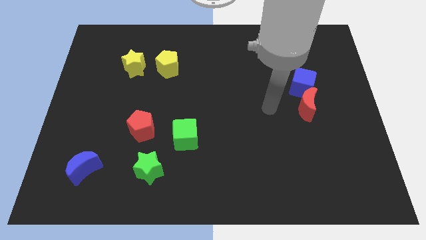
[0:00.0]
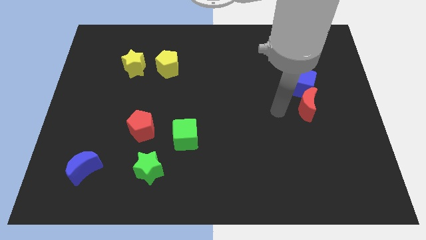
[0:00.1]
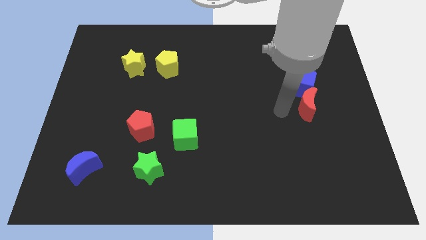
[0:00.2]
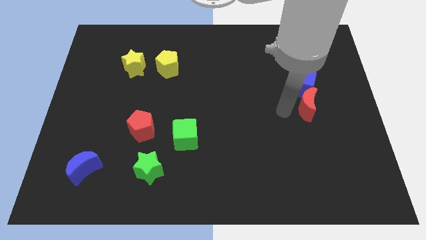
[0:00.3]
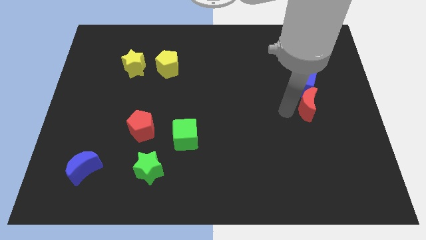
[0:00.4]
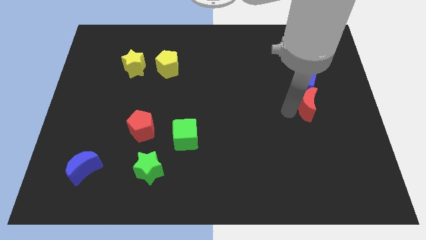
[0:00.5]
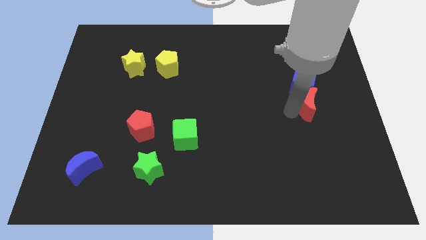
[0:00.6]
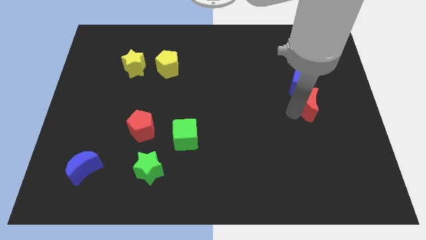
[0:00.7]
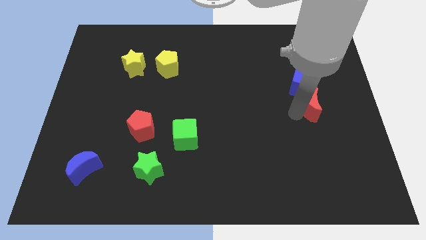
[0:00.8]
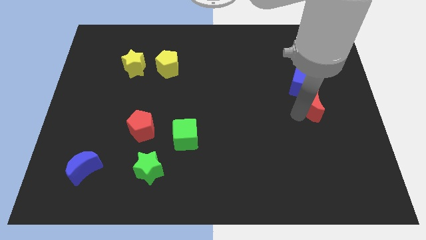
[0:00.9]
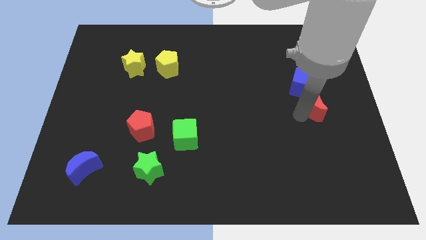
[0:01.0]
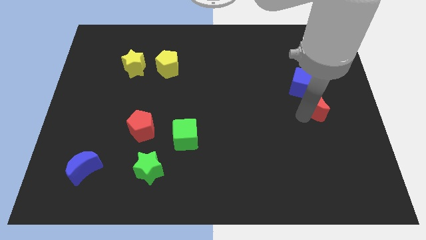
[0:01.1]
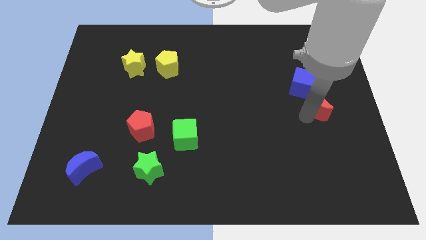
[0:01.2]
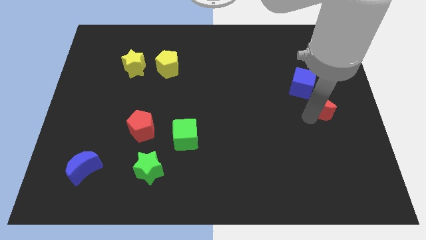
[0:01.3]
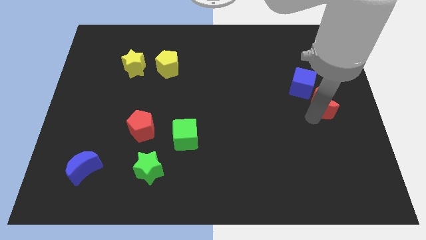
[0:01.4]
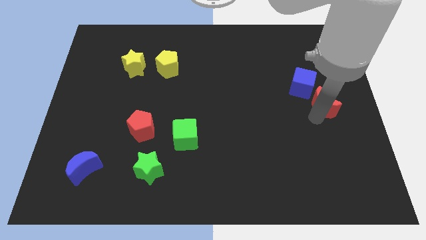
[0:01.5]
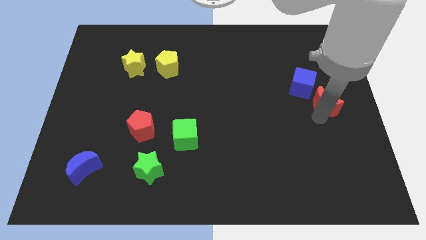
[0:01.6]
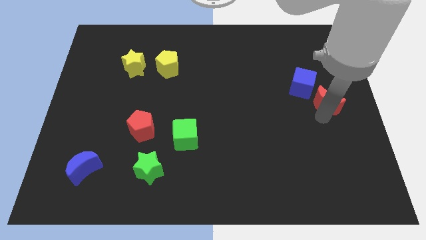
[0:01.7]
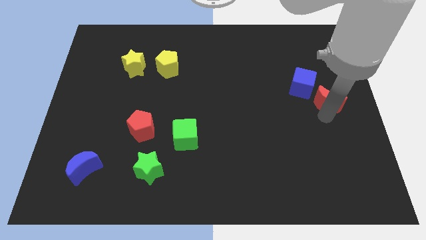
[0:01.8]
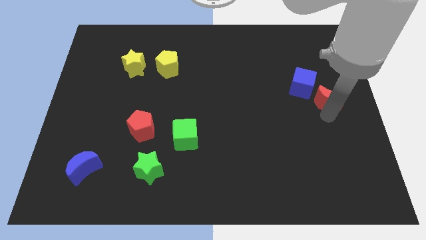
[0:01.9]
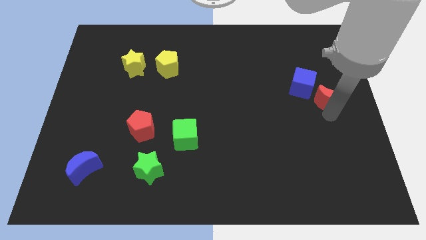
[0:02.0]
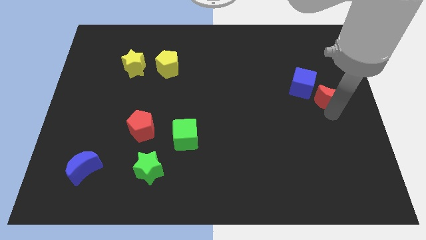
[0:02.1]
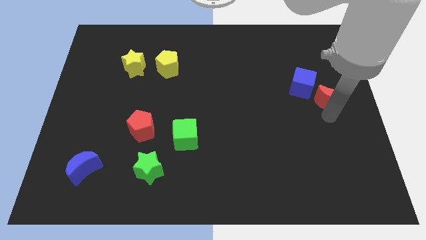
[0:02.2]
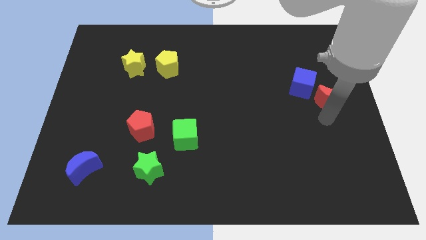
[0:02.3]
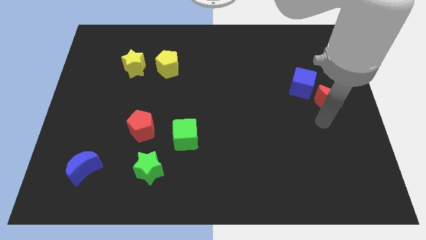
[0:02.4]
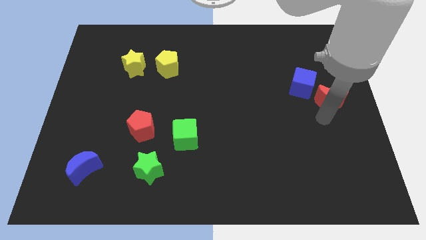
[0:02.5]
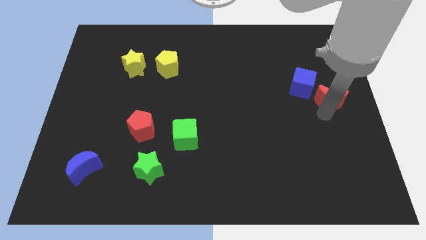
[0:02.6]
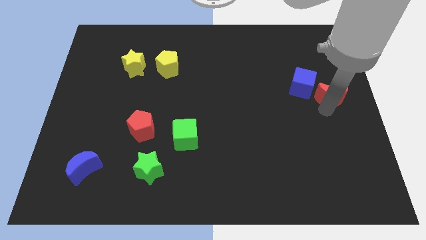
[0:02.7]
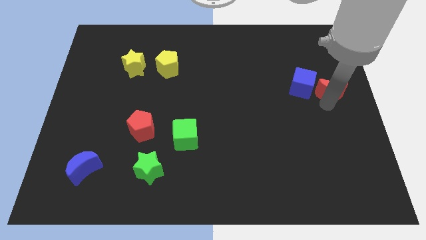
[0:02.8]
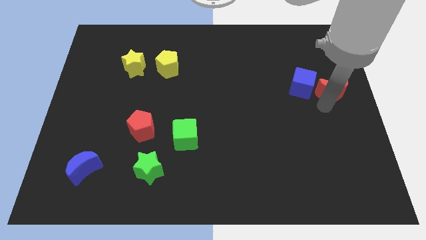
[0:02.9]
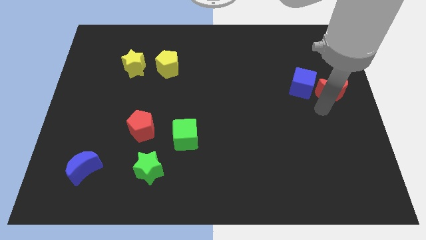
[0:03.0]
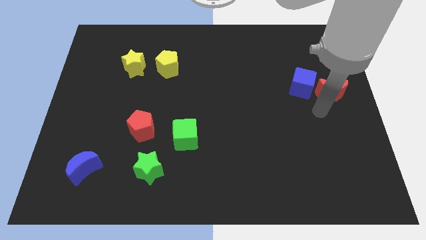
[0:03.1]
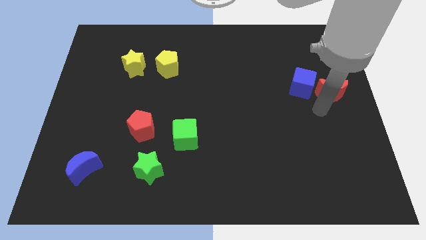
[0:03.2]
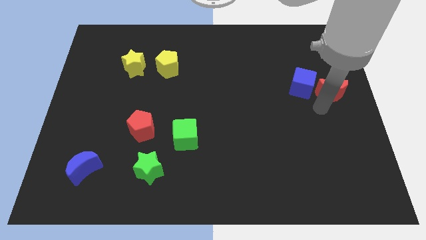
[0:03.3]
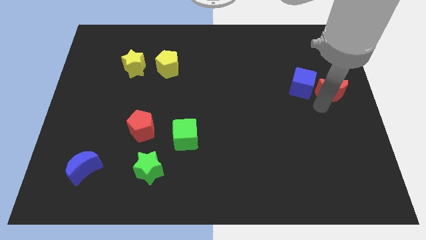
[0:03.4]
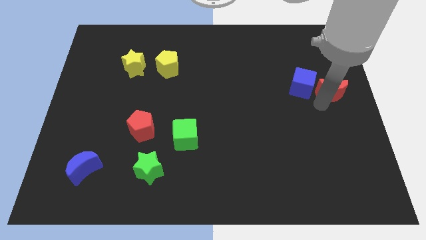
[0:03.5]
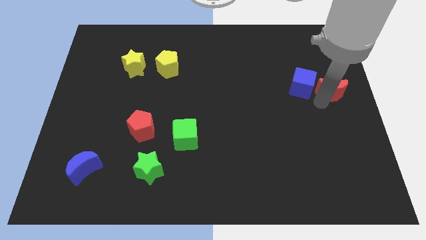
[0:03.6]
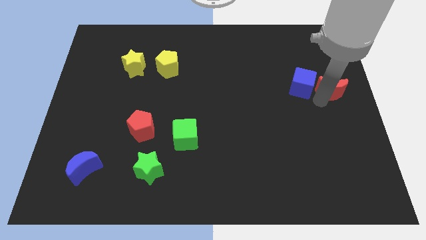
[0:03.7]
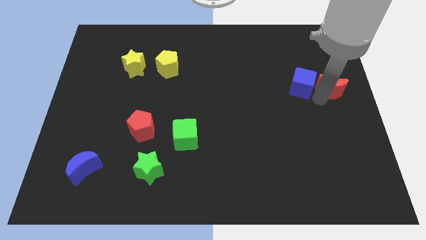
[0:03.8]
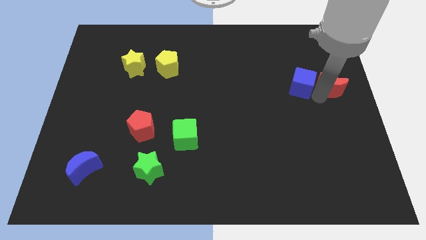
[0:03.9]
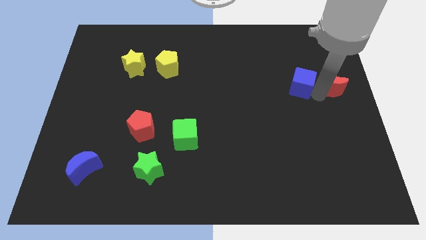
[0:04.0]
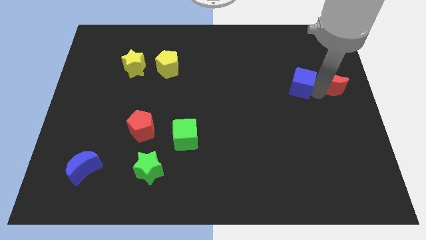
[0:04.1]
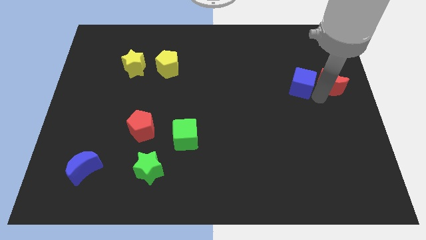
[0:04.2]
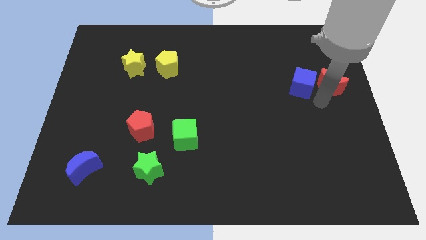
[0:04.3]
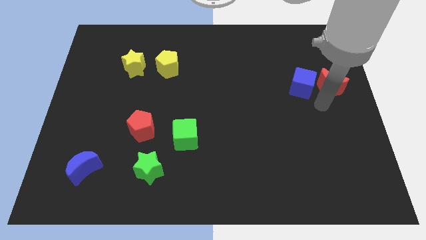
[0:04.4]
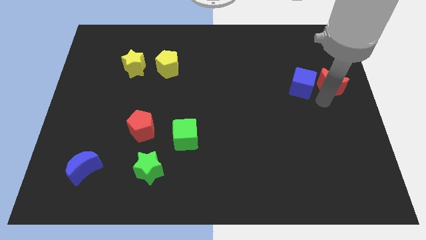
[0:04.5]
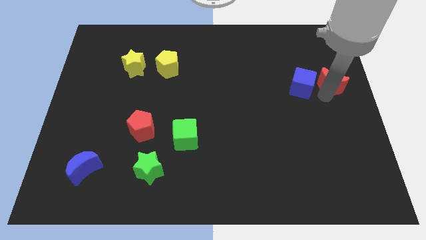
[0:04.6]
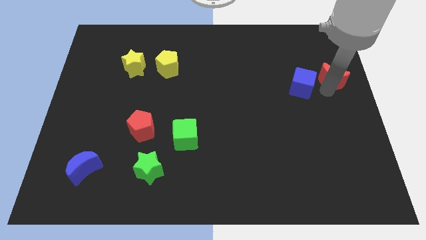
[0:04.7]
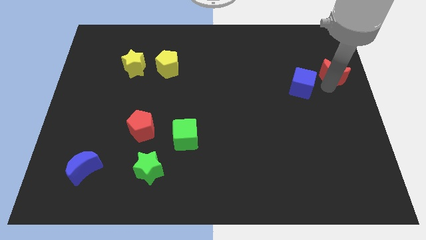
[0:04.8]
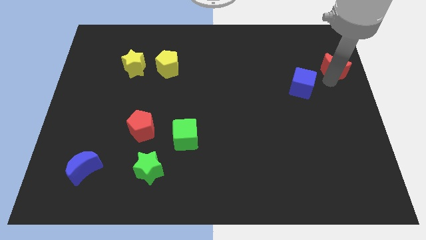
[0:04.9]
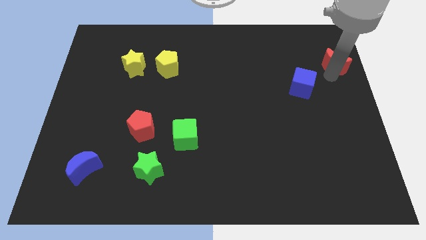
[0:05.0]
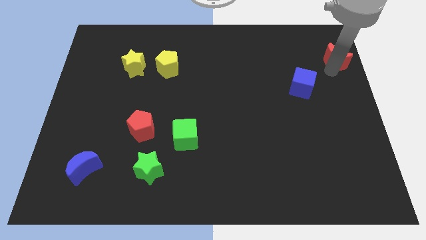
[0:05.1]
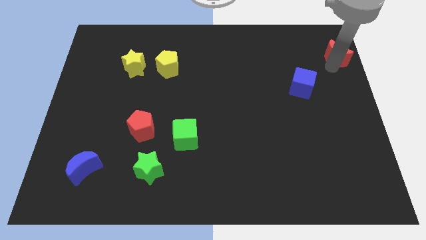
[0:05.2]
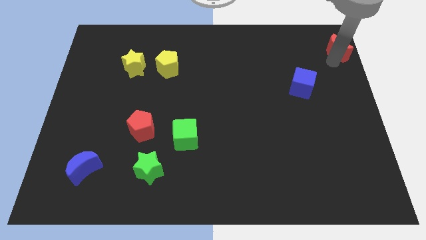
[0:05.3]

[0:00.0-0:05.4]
move the red moon to the top right

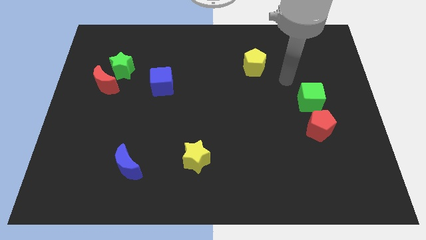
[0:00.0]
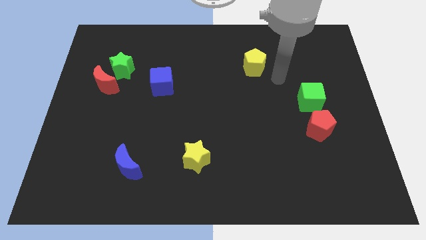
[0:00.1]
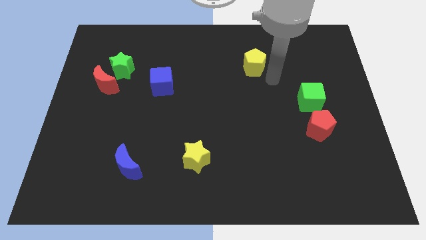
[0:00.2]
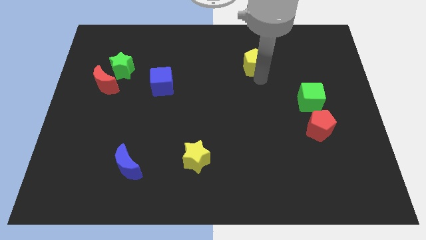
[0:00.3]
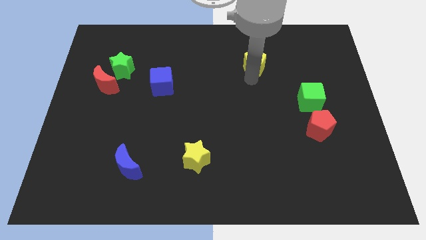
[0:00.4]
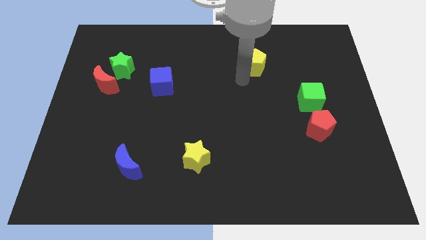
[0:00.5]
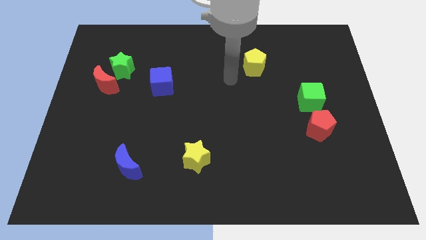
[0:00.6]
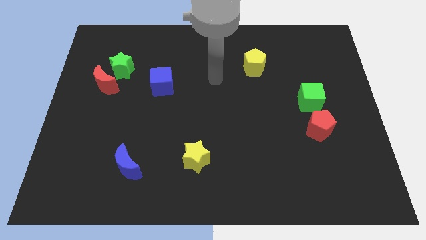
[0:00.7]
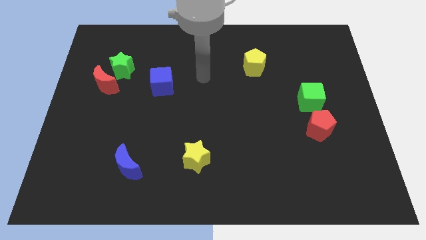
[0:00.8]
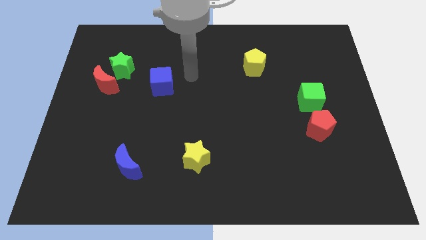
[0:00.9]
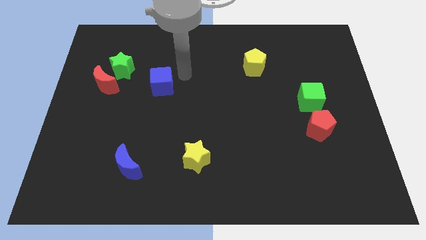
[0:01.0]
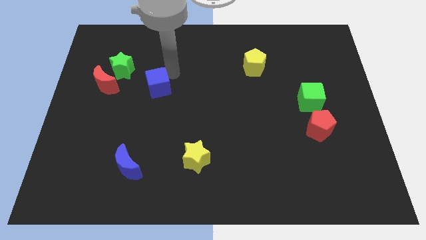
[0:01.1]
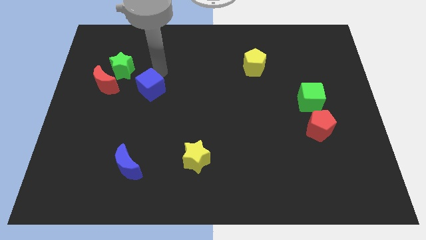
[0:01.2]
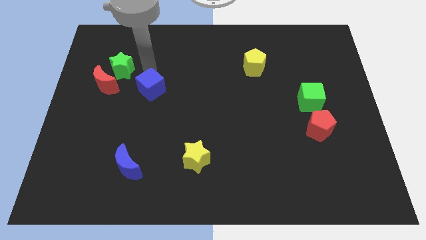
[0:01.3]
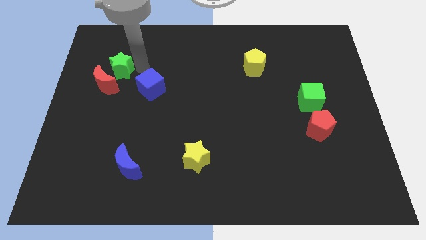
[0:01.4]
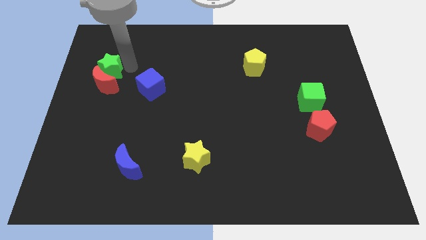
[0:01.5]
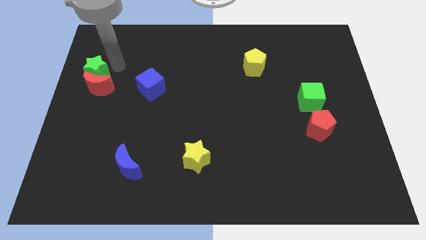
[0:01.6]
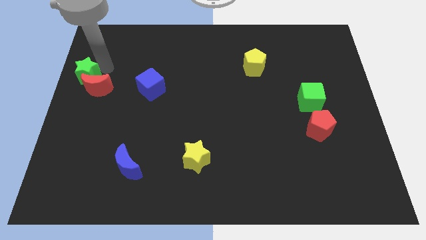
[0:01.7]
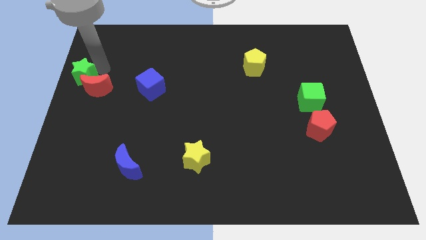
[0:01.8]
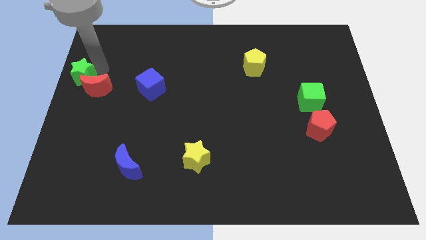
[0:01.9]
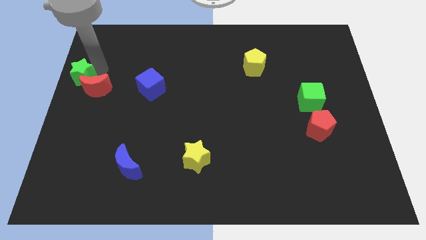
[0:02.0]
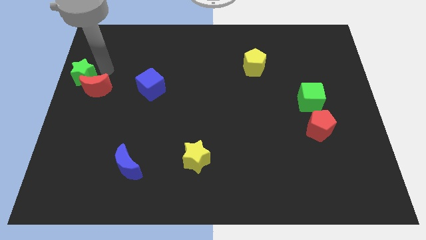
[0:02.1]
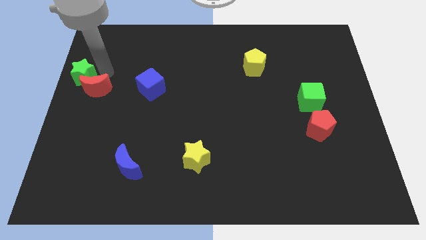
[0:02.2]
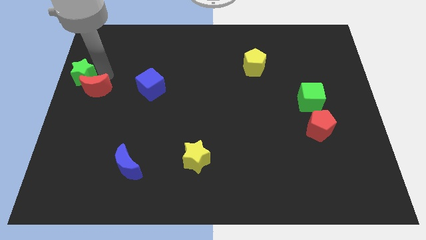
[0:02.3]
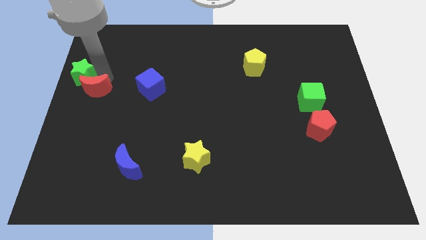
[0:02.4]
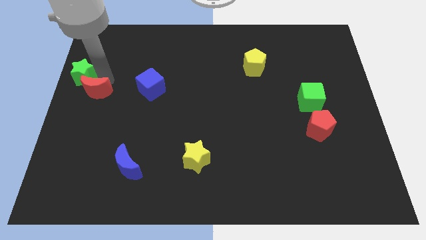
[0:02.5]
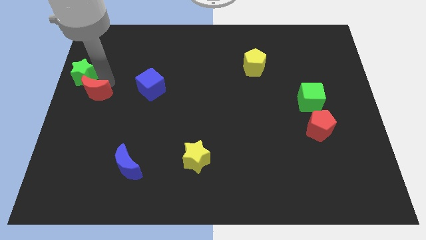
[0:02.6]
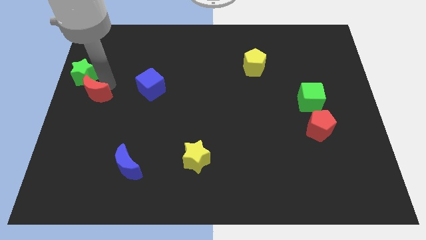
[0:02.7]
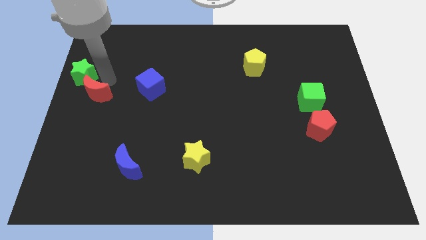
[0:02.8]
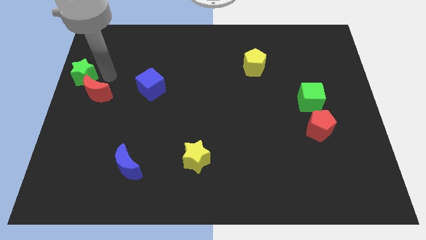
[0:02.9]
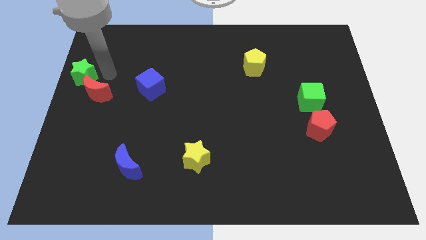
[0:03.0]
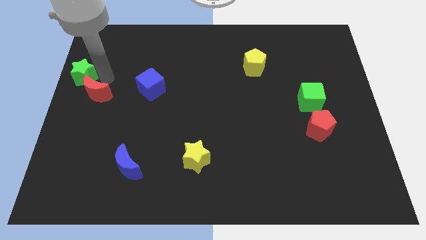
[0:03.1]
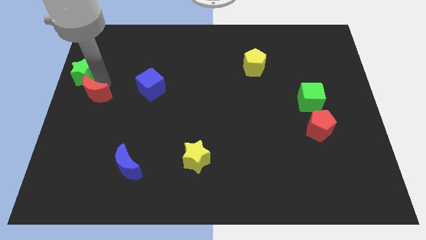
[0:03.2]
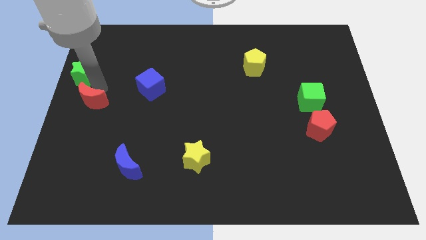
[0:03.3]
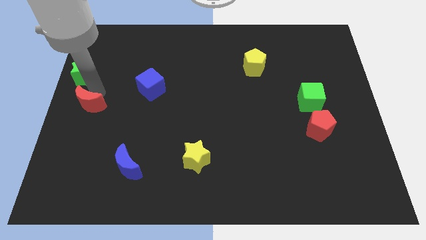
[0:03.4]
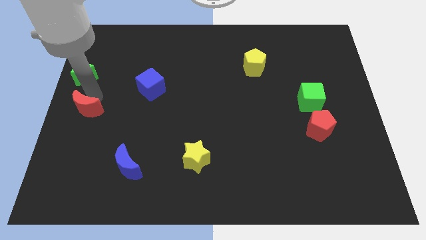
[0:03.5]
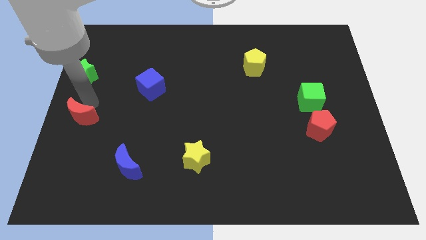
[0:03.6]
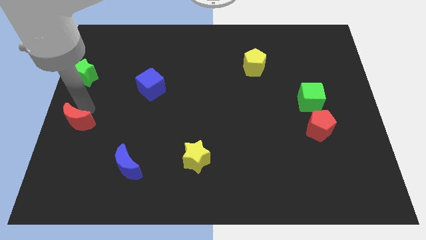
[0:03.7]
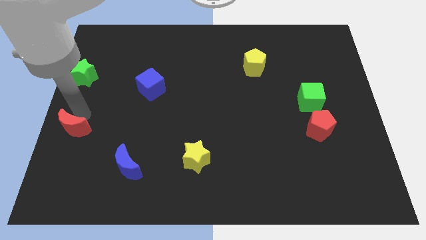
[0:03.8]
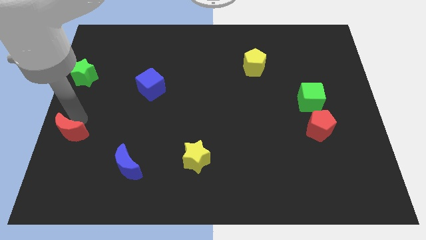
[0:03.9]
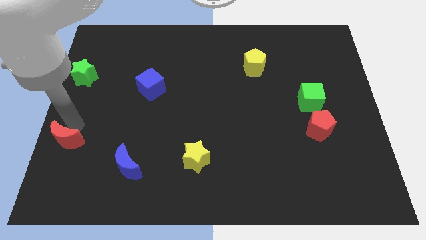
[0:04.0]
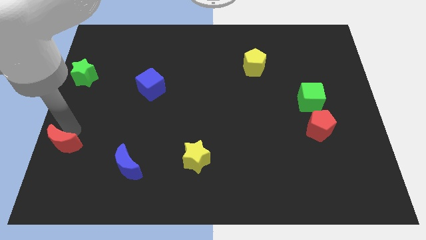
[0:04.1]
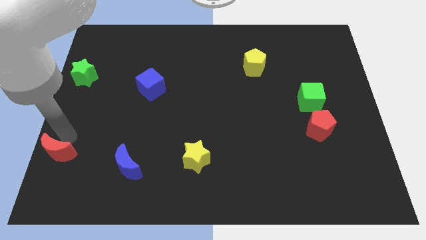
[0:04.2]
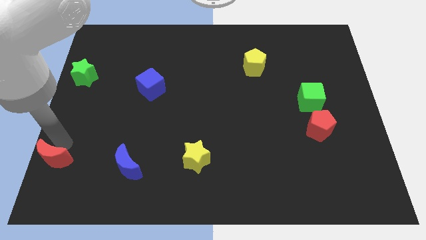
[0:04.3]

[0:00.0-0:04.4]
slide the red moon to the bottom left of the board
